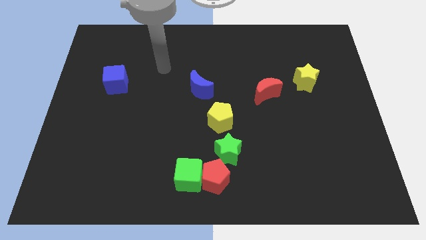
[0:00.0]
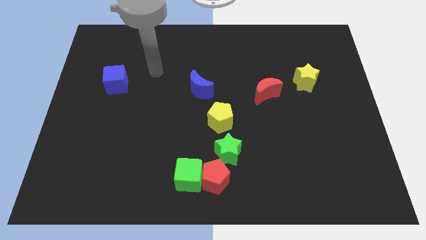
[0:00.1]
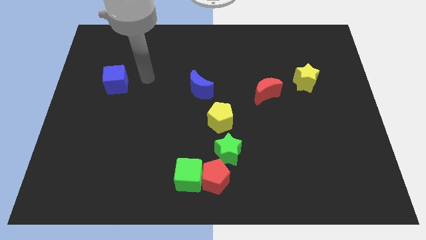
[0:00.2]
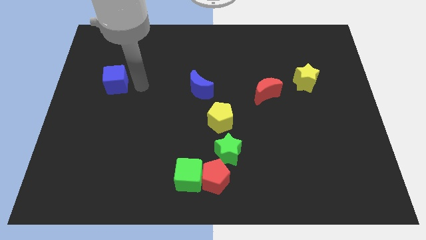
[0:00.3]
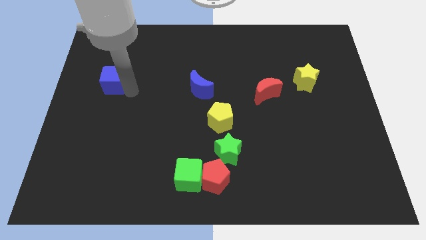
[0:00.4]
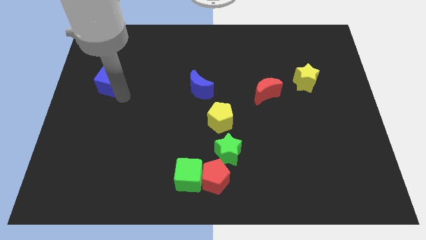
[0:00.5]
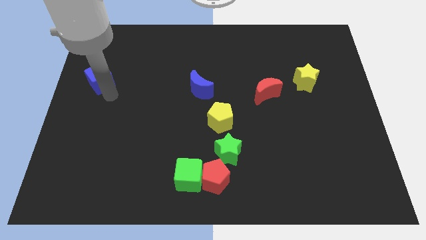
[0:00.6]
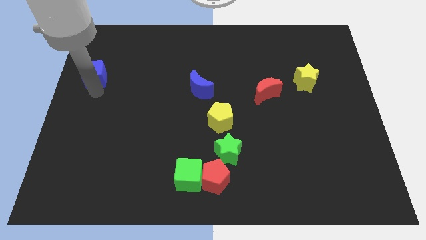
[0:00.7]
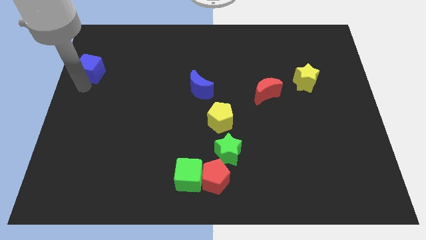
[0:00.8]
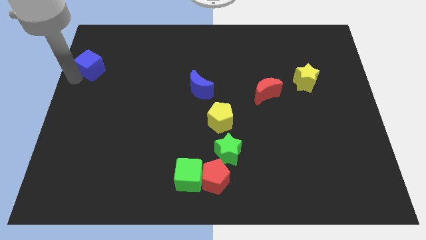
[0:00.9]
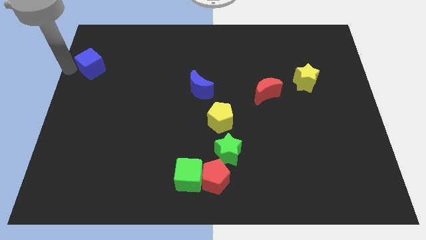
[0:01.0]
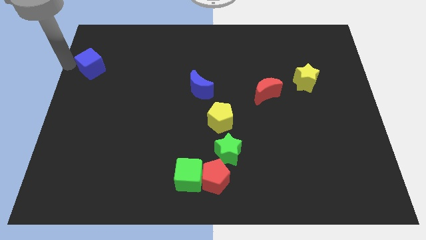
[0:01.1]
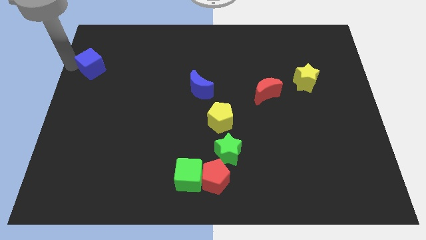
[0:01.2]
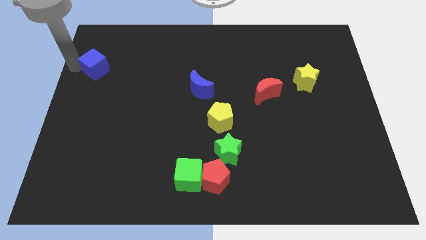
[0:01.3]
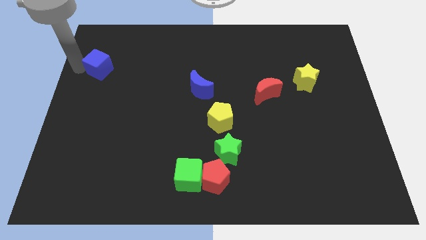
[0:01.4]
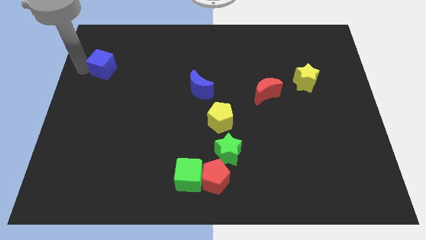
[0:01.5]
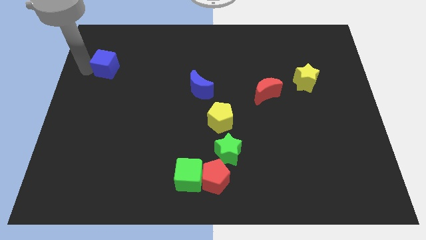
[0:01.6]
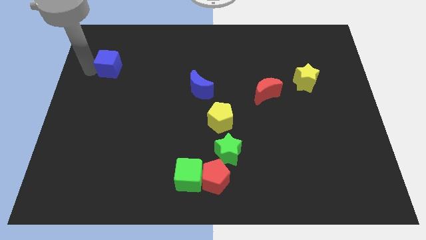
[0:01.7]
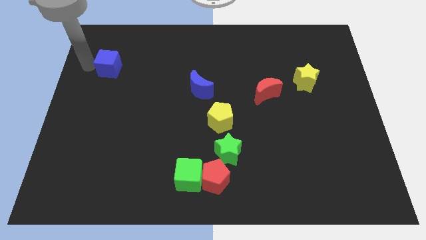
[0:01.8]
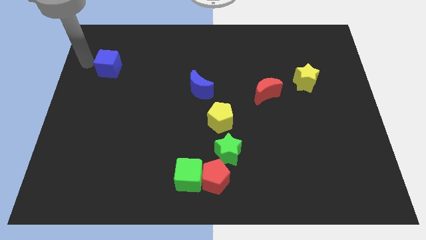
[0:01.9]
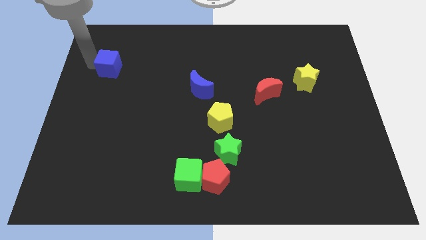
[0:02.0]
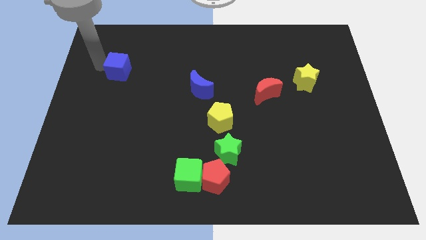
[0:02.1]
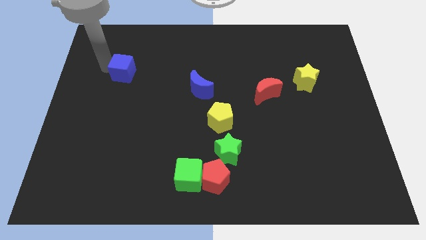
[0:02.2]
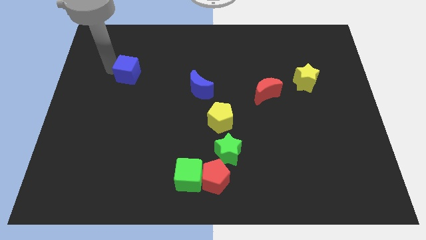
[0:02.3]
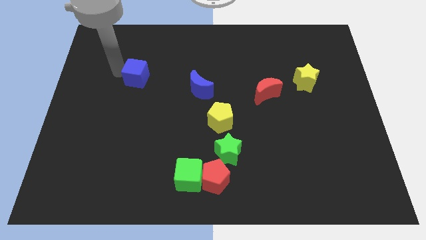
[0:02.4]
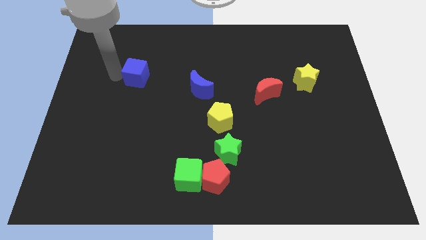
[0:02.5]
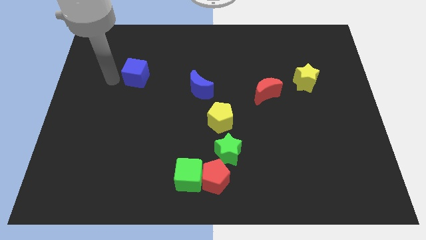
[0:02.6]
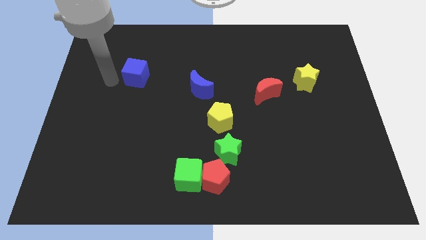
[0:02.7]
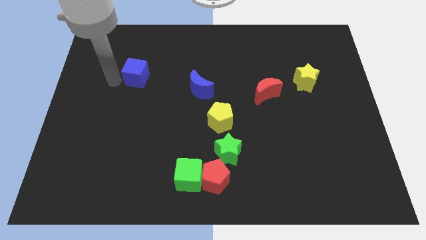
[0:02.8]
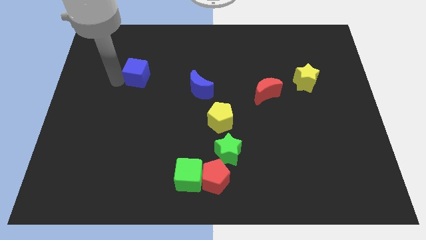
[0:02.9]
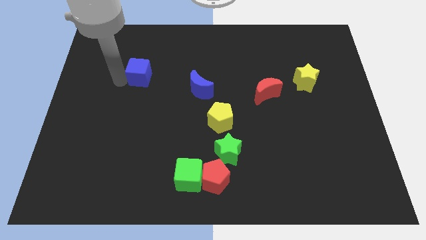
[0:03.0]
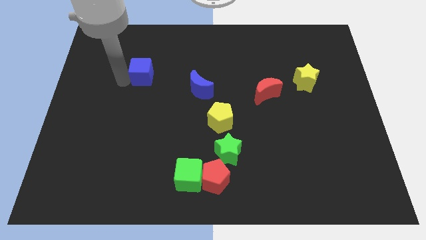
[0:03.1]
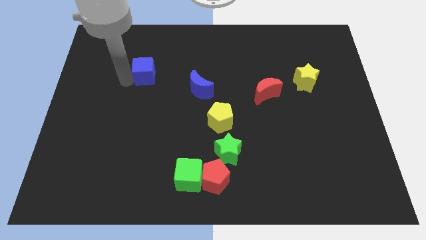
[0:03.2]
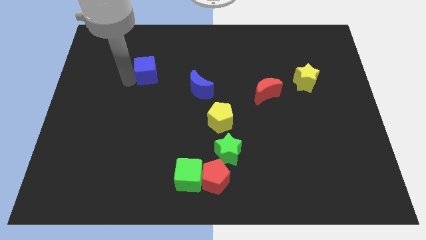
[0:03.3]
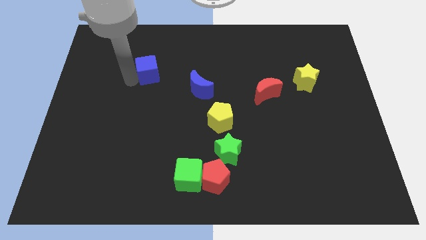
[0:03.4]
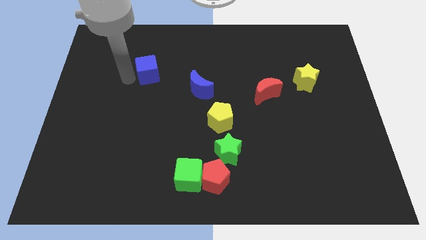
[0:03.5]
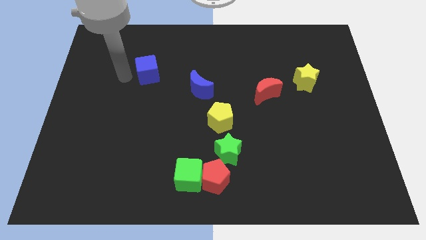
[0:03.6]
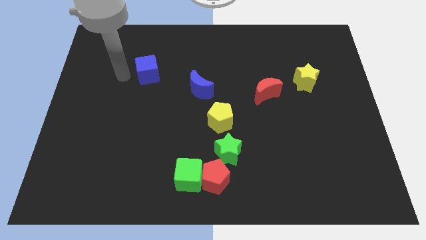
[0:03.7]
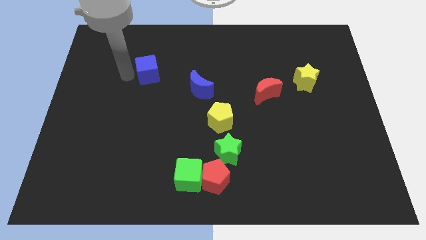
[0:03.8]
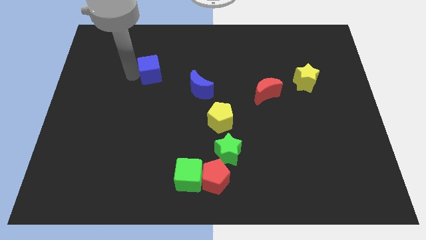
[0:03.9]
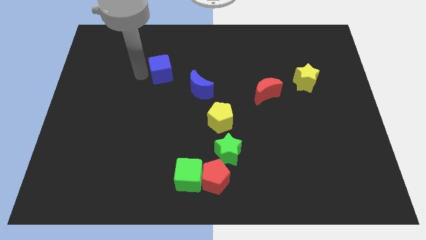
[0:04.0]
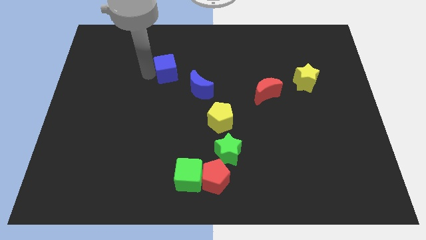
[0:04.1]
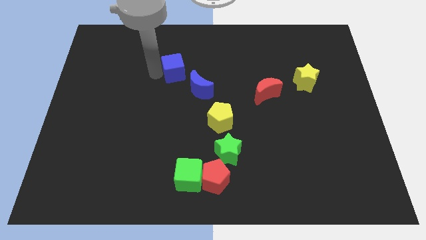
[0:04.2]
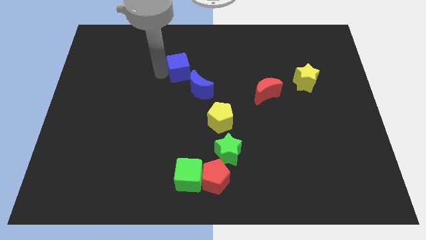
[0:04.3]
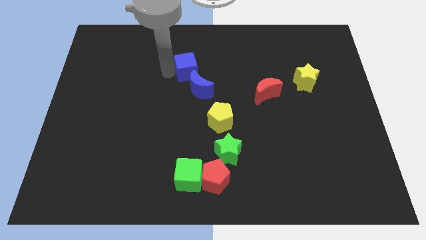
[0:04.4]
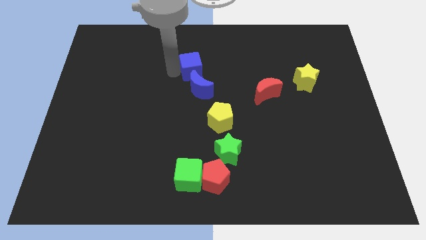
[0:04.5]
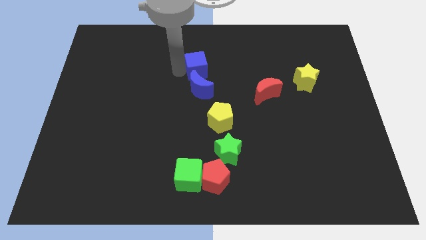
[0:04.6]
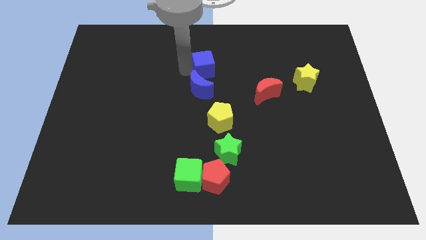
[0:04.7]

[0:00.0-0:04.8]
slide the blue cube right

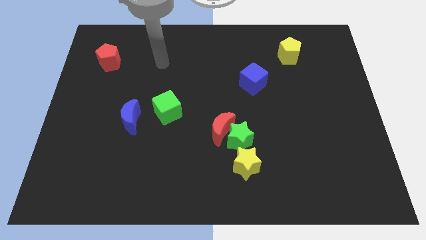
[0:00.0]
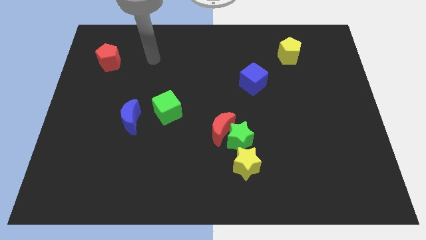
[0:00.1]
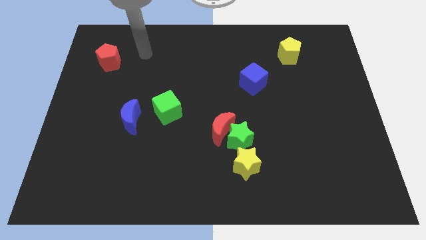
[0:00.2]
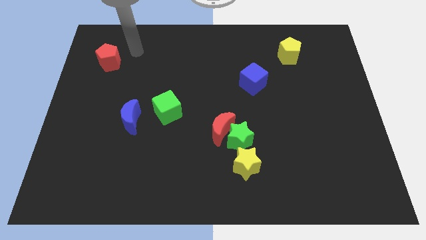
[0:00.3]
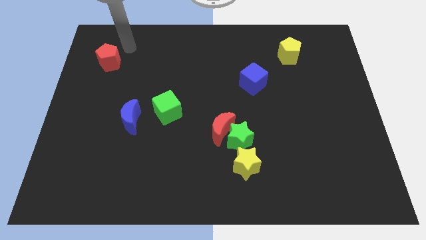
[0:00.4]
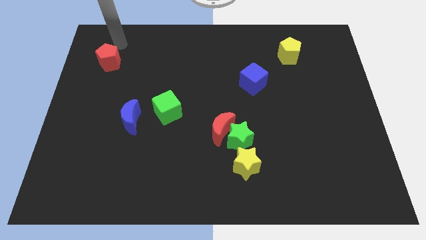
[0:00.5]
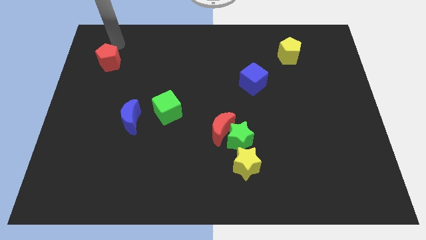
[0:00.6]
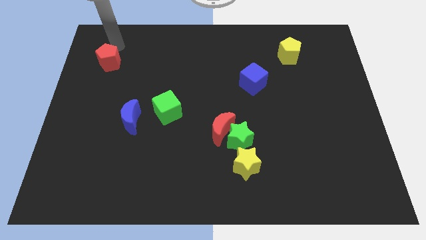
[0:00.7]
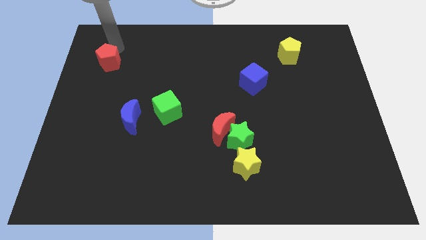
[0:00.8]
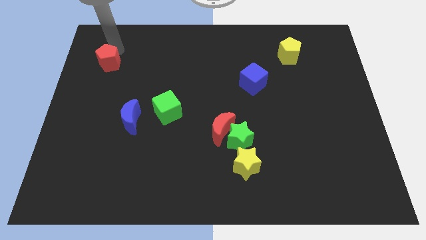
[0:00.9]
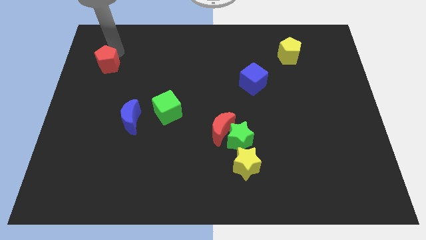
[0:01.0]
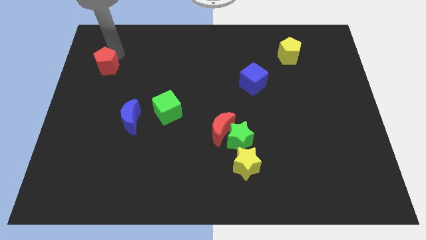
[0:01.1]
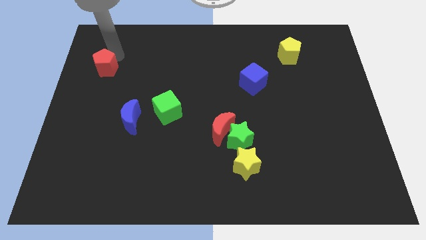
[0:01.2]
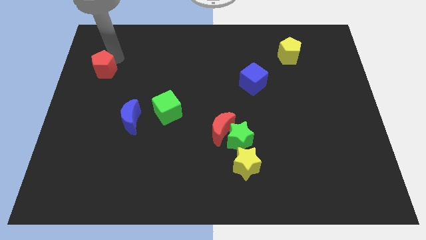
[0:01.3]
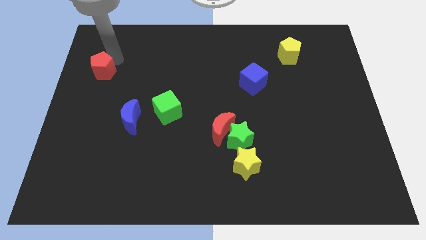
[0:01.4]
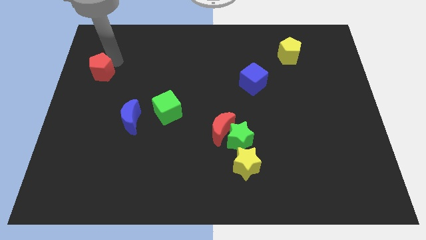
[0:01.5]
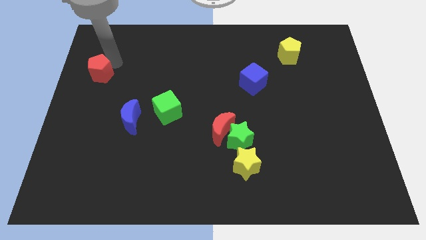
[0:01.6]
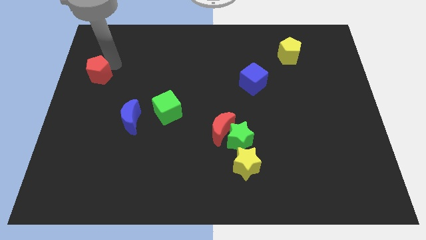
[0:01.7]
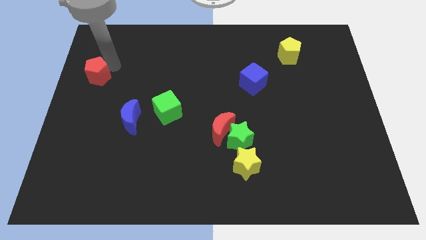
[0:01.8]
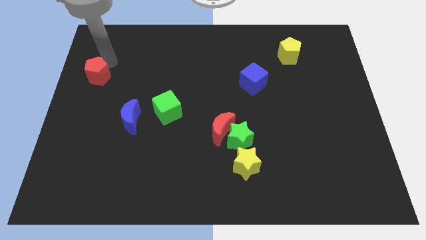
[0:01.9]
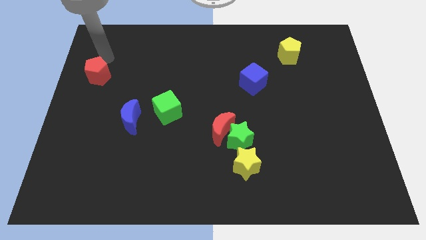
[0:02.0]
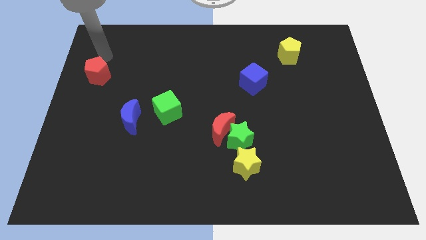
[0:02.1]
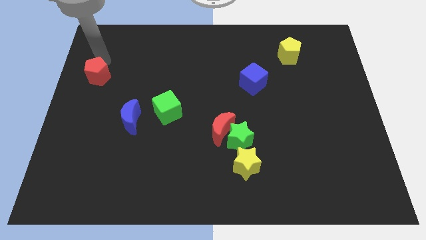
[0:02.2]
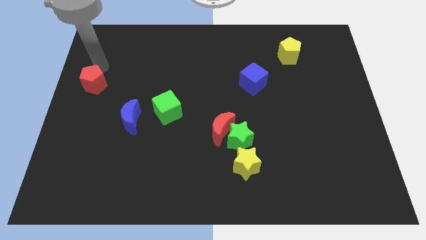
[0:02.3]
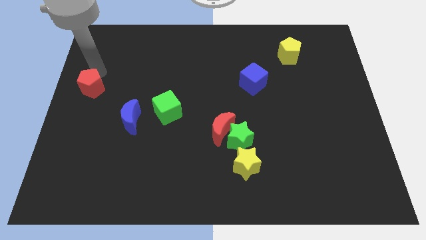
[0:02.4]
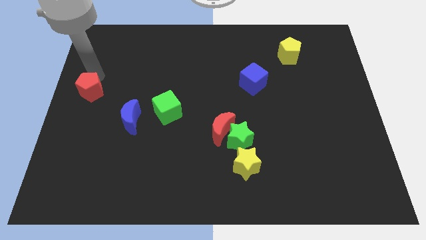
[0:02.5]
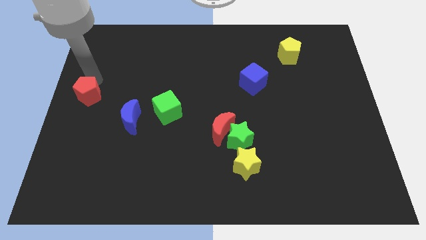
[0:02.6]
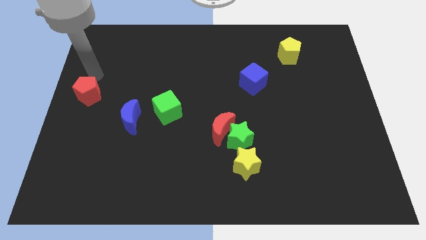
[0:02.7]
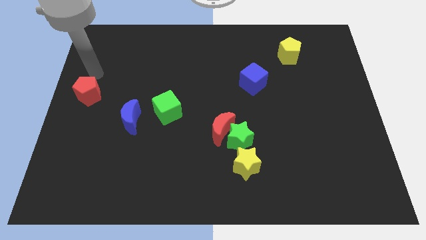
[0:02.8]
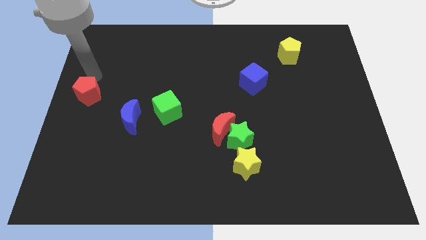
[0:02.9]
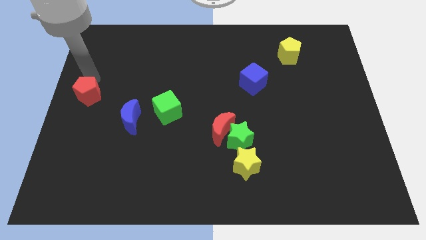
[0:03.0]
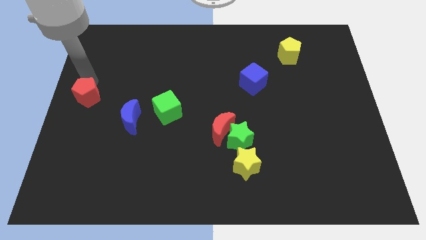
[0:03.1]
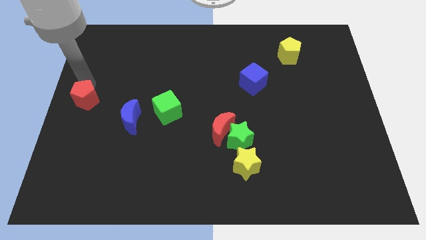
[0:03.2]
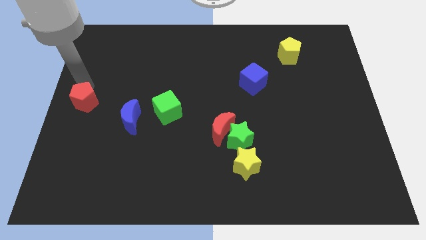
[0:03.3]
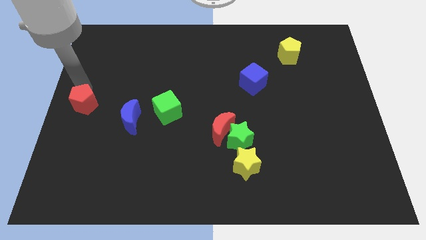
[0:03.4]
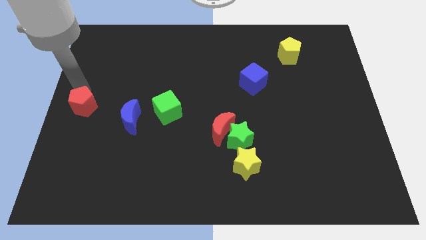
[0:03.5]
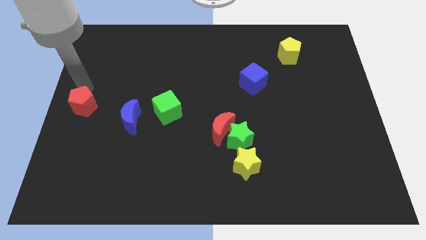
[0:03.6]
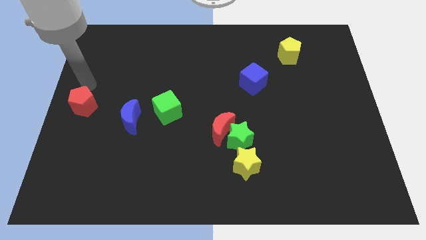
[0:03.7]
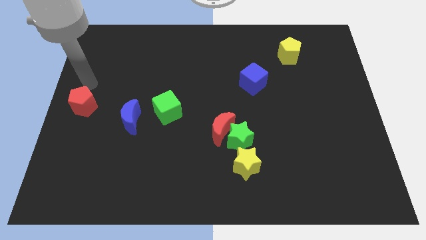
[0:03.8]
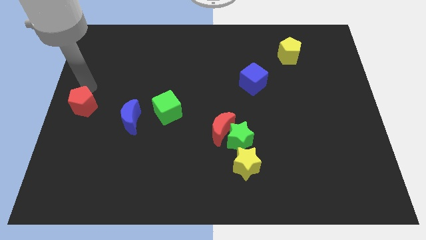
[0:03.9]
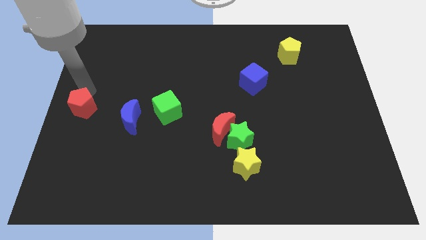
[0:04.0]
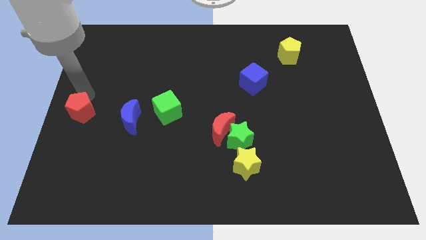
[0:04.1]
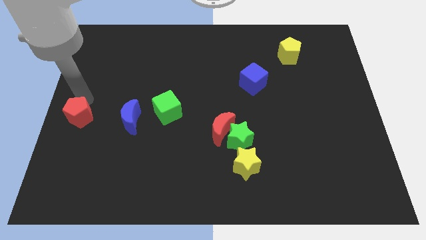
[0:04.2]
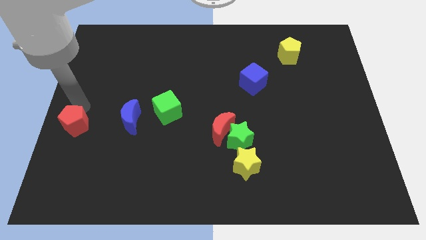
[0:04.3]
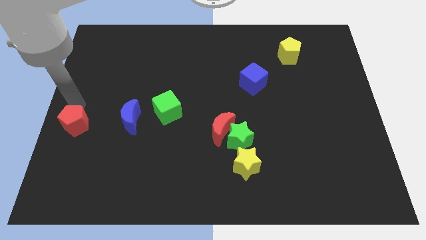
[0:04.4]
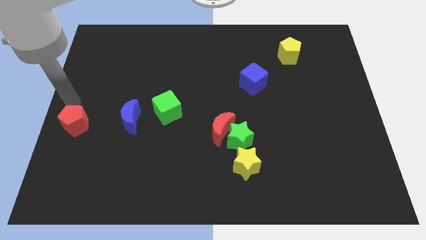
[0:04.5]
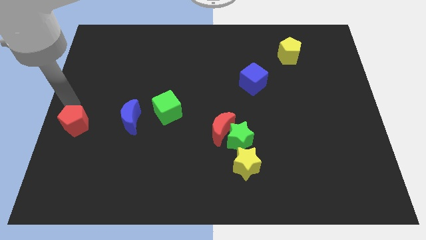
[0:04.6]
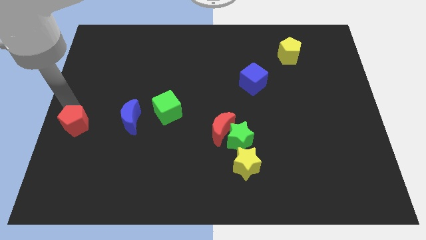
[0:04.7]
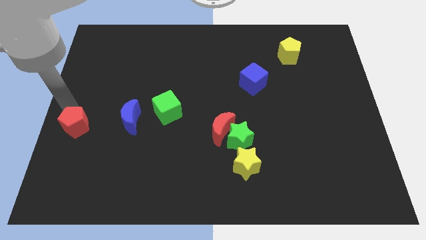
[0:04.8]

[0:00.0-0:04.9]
push the red pentagon down
